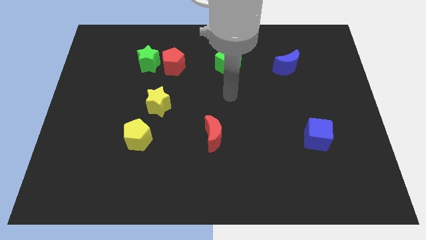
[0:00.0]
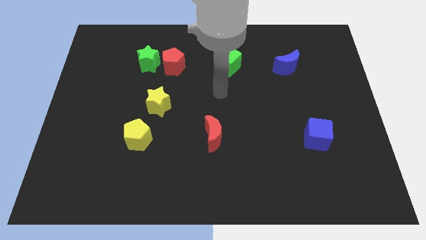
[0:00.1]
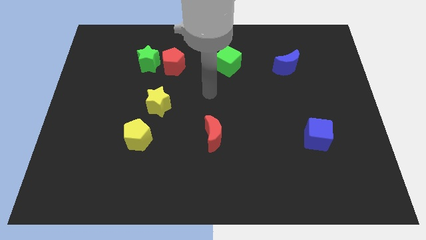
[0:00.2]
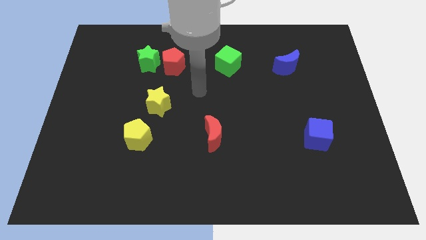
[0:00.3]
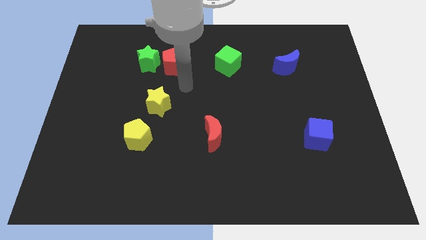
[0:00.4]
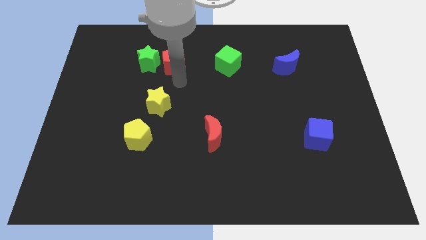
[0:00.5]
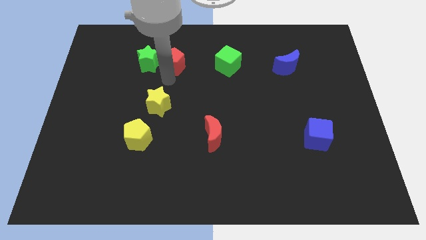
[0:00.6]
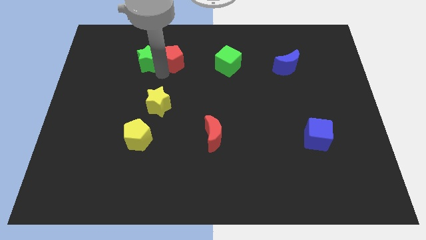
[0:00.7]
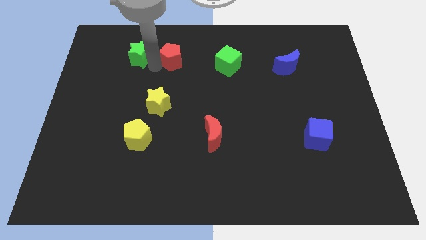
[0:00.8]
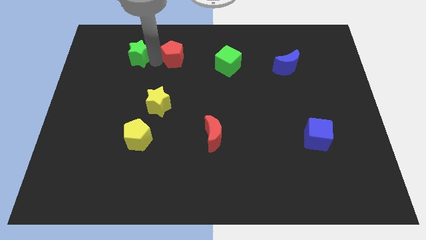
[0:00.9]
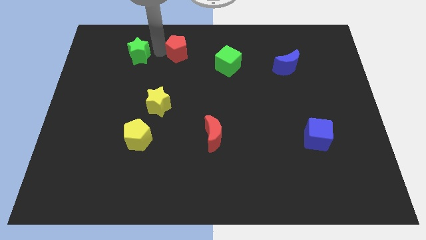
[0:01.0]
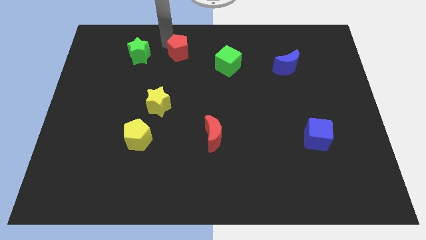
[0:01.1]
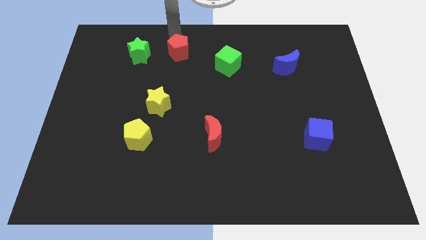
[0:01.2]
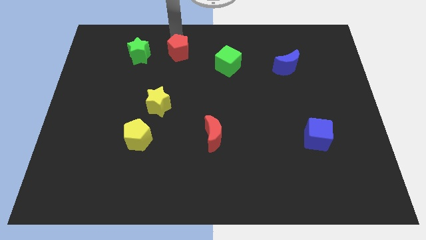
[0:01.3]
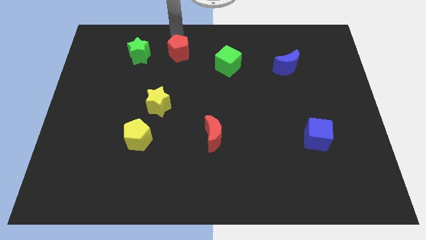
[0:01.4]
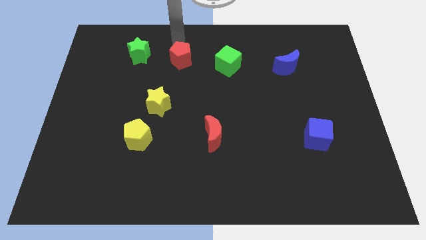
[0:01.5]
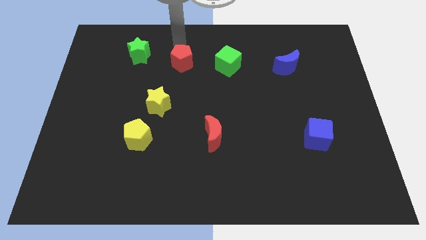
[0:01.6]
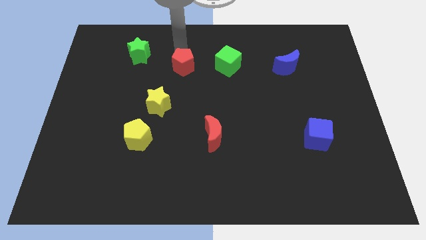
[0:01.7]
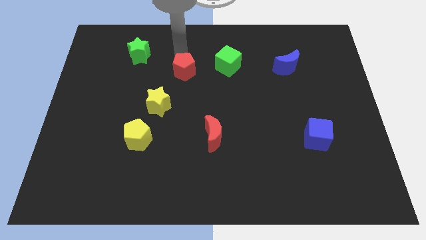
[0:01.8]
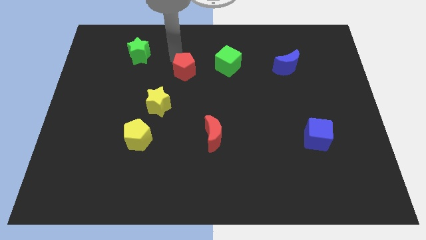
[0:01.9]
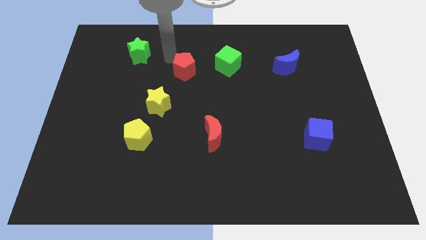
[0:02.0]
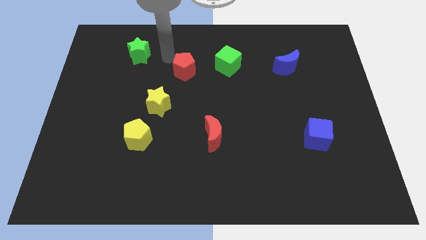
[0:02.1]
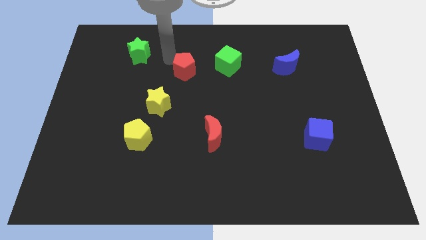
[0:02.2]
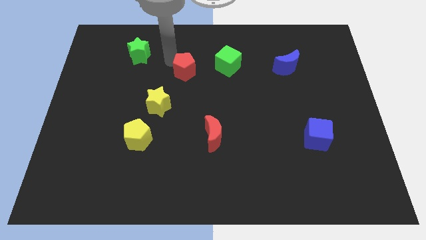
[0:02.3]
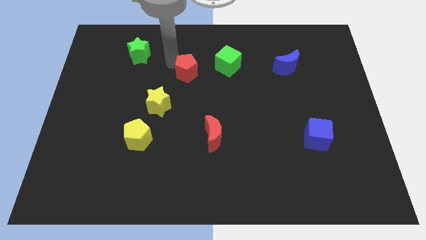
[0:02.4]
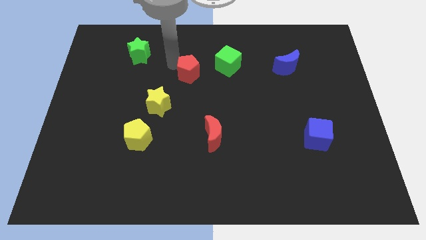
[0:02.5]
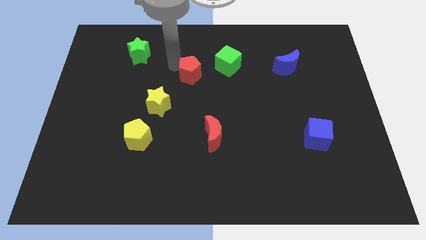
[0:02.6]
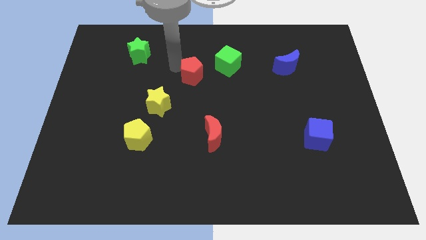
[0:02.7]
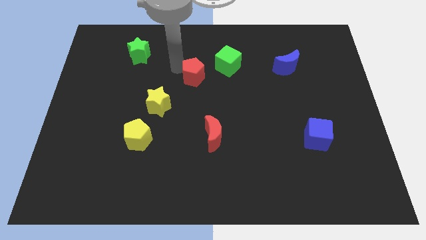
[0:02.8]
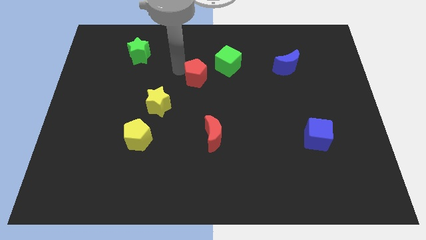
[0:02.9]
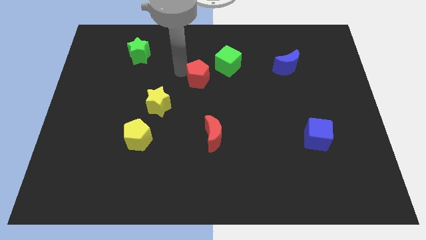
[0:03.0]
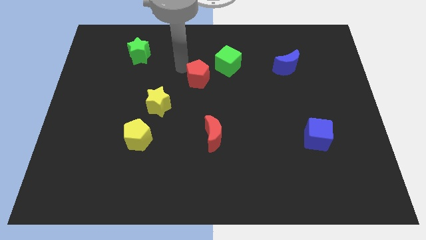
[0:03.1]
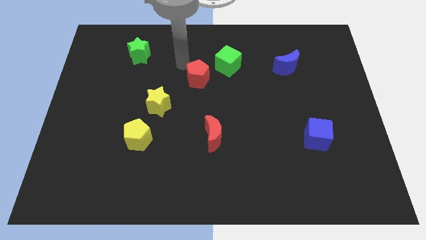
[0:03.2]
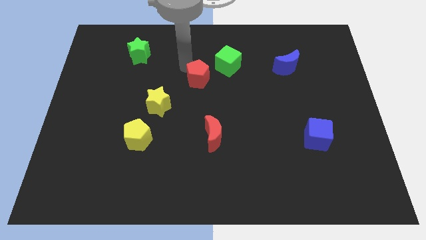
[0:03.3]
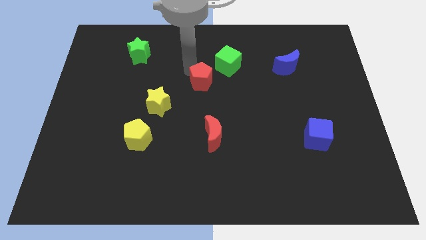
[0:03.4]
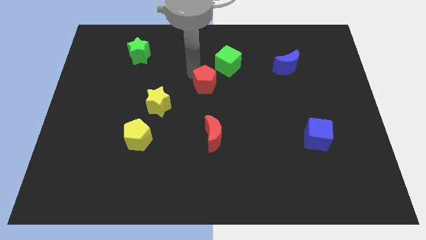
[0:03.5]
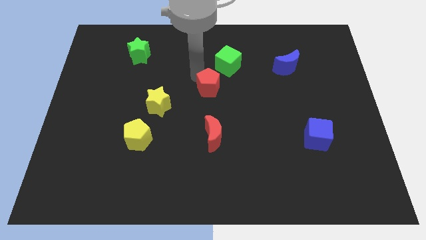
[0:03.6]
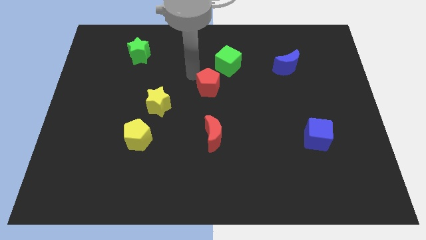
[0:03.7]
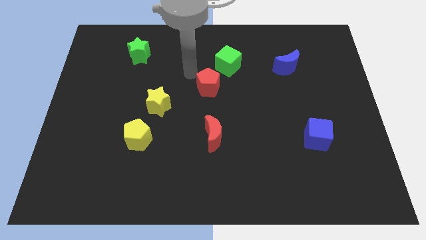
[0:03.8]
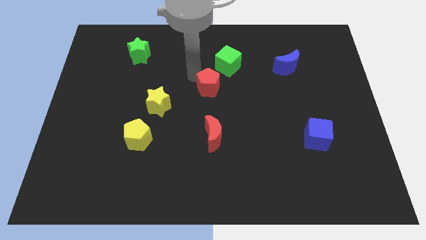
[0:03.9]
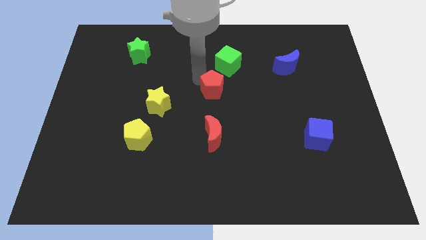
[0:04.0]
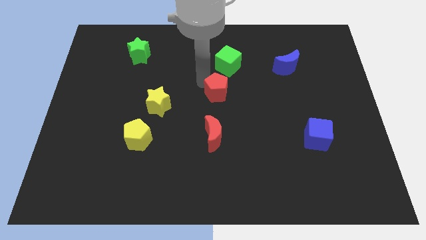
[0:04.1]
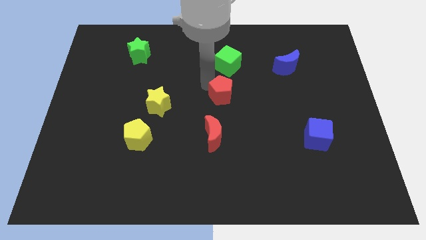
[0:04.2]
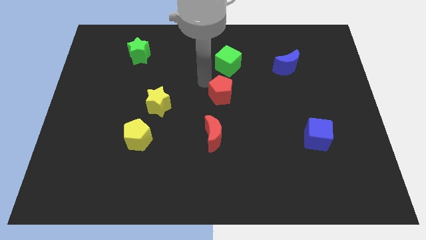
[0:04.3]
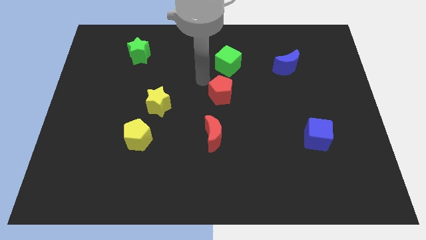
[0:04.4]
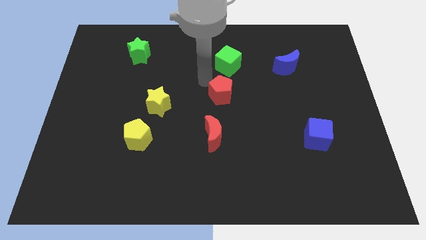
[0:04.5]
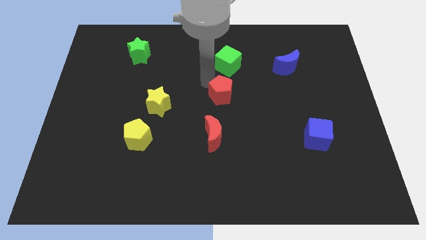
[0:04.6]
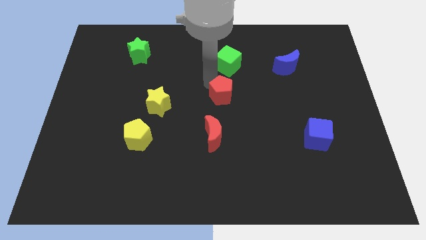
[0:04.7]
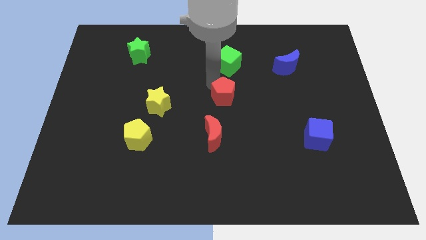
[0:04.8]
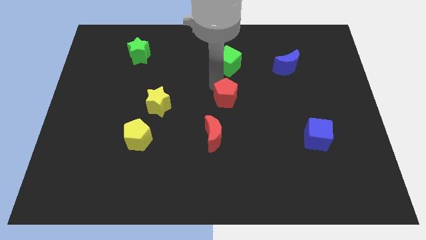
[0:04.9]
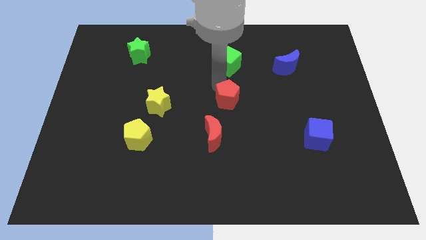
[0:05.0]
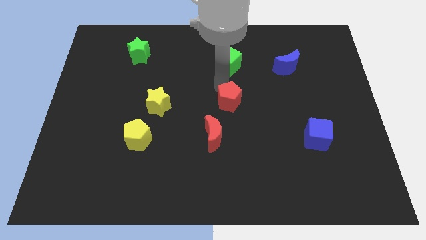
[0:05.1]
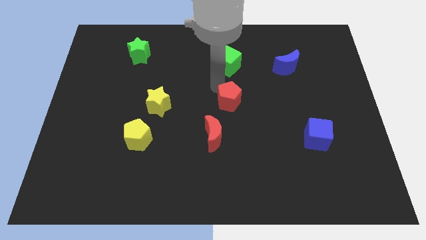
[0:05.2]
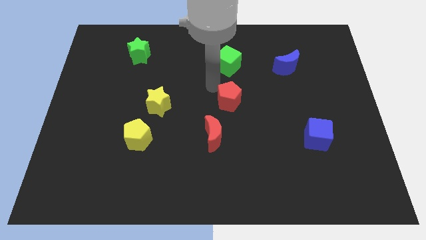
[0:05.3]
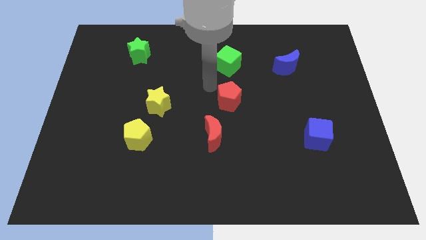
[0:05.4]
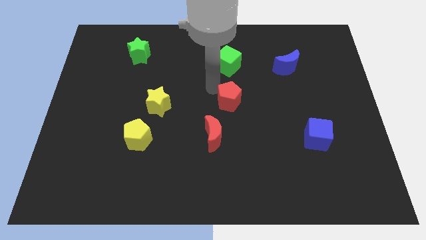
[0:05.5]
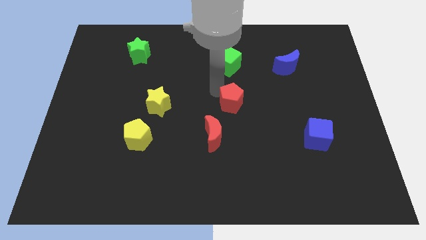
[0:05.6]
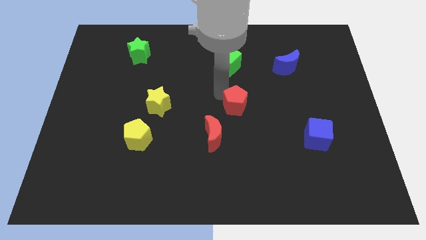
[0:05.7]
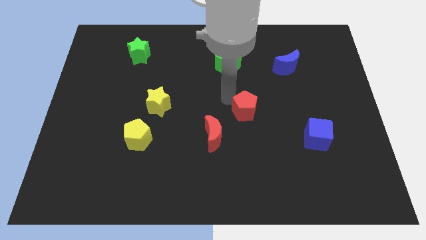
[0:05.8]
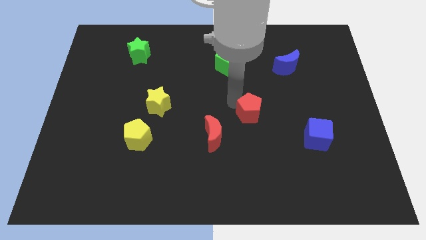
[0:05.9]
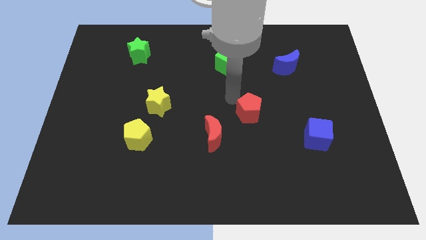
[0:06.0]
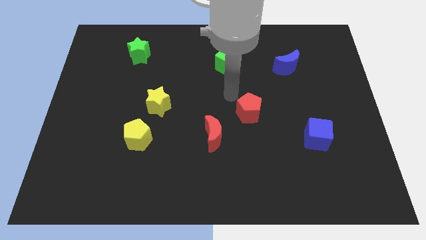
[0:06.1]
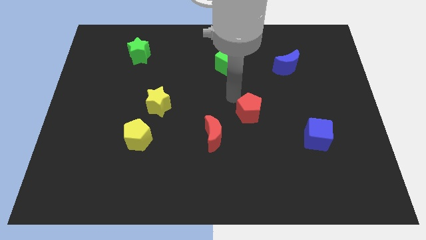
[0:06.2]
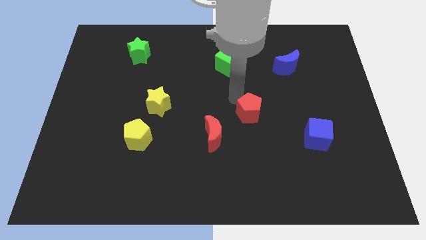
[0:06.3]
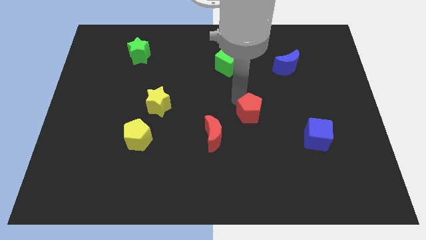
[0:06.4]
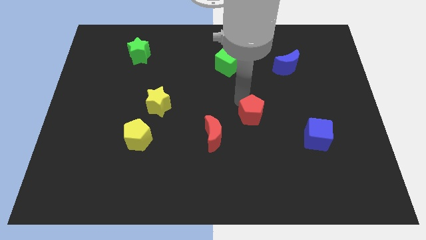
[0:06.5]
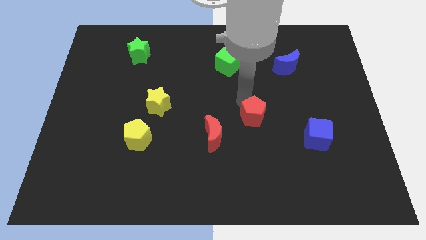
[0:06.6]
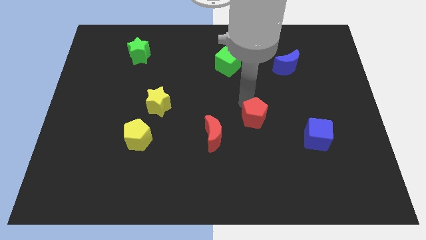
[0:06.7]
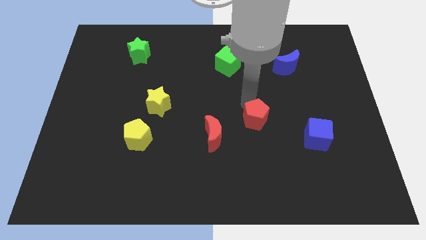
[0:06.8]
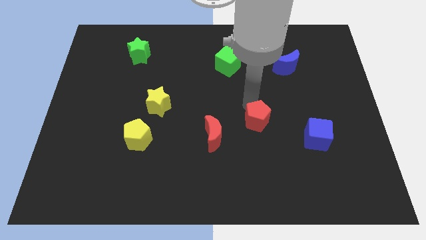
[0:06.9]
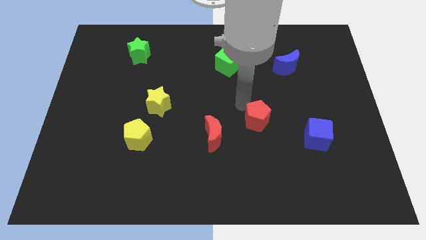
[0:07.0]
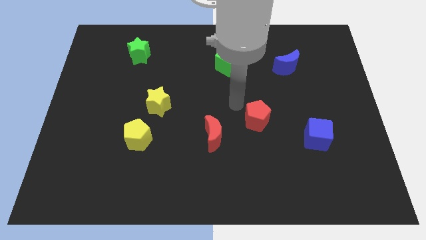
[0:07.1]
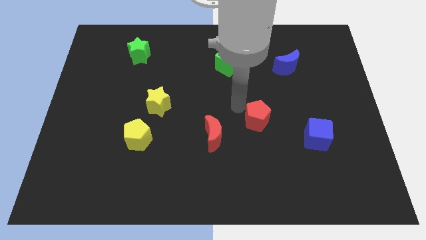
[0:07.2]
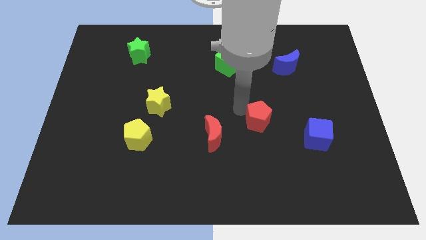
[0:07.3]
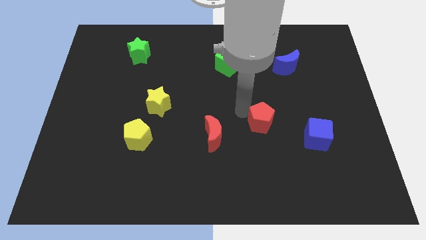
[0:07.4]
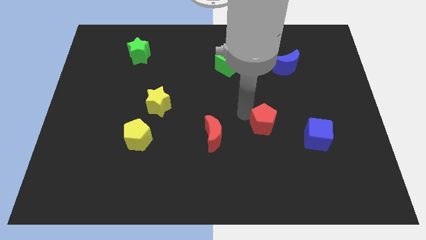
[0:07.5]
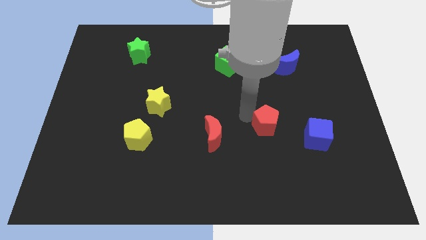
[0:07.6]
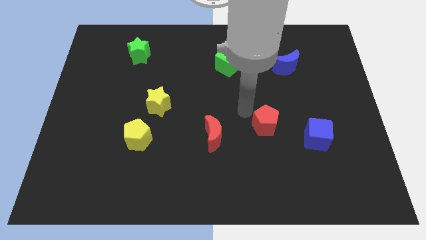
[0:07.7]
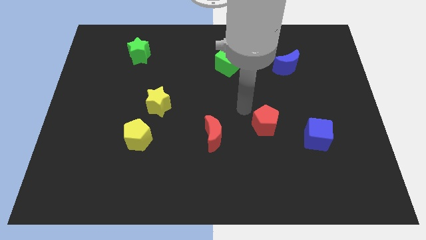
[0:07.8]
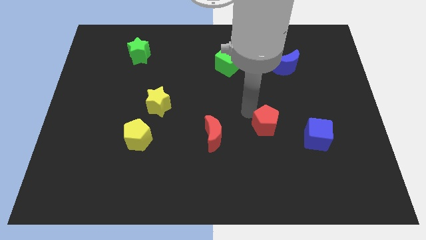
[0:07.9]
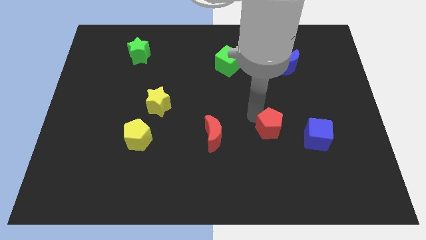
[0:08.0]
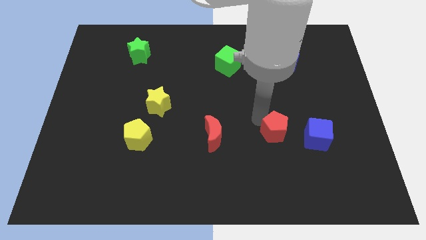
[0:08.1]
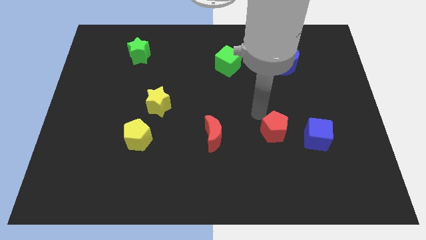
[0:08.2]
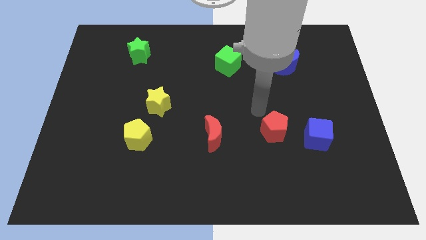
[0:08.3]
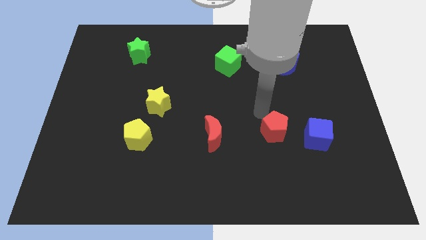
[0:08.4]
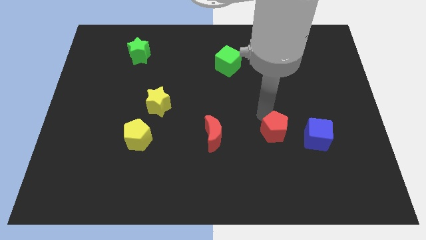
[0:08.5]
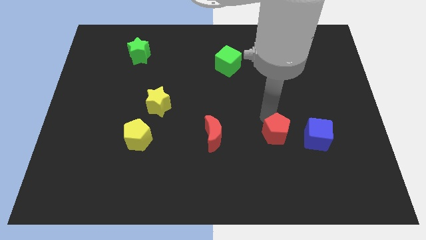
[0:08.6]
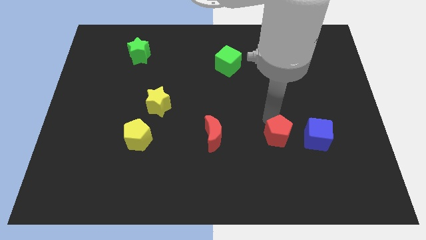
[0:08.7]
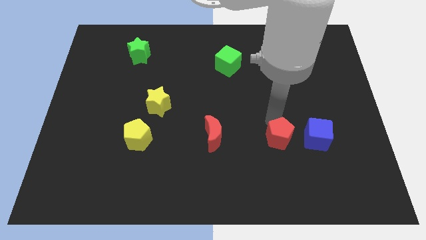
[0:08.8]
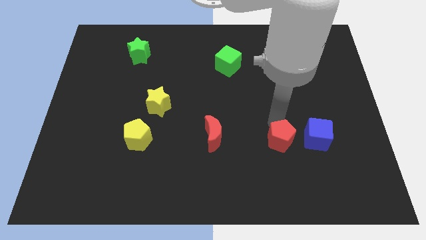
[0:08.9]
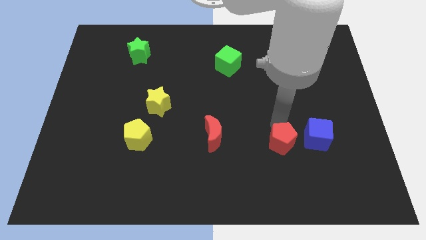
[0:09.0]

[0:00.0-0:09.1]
push the red pentagon to the bottom left of the blue cube
